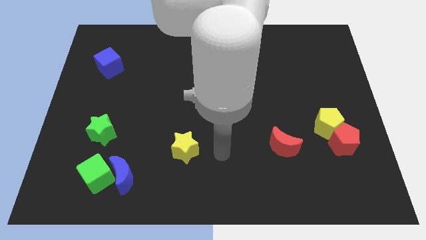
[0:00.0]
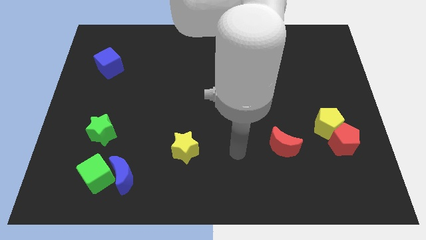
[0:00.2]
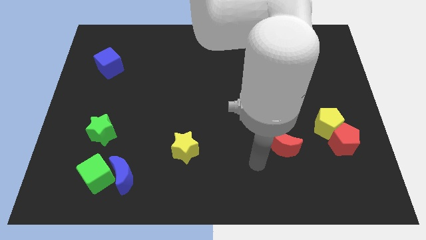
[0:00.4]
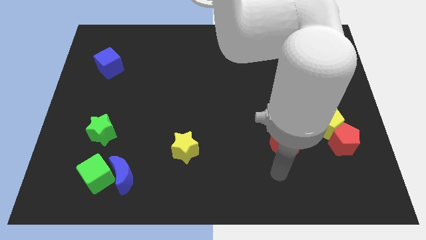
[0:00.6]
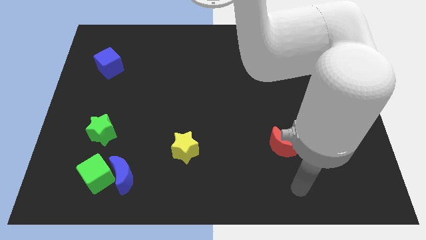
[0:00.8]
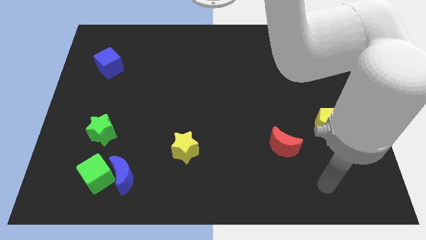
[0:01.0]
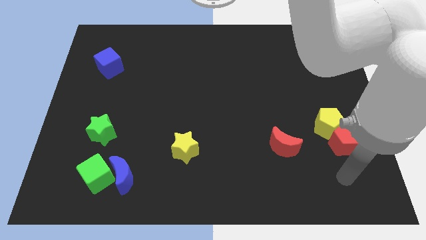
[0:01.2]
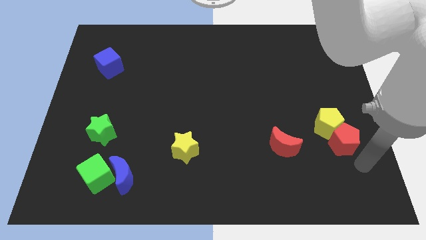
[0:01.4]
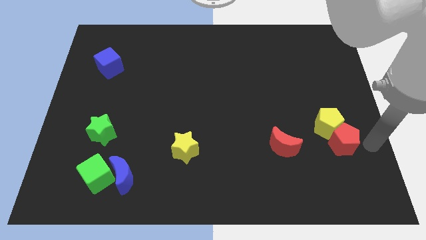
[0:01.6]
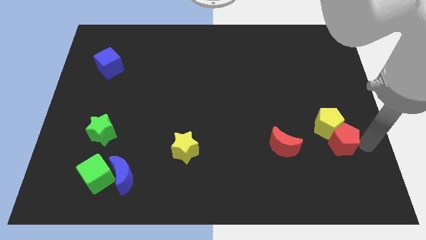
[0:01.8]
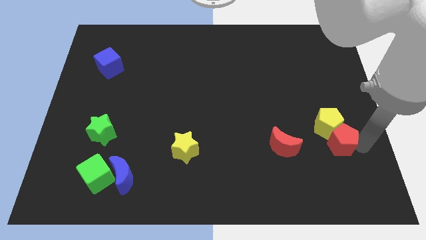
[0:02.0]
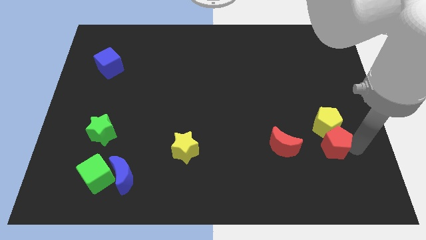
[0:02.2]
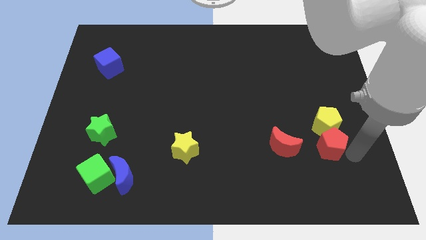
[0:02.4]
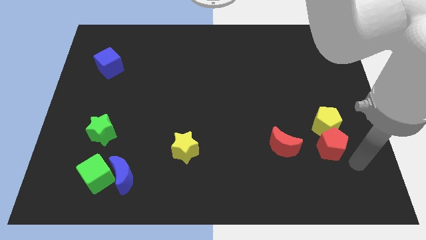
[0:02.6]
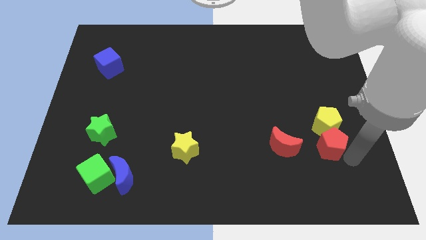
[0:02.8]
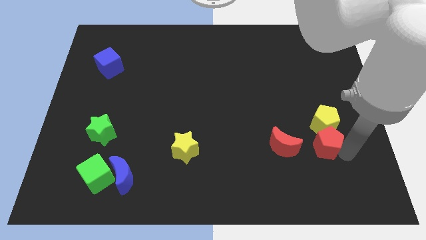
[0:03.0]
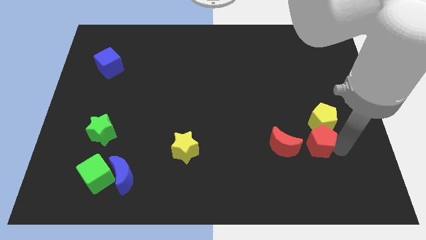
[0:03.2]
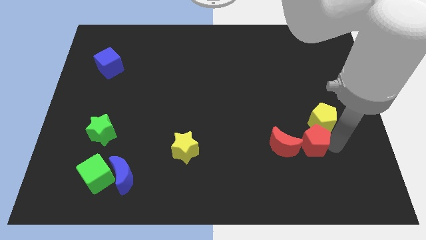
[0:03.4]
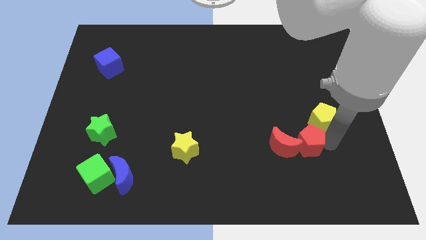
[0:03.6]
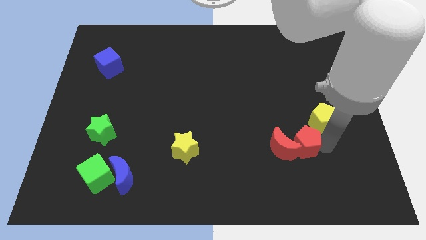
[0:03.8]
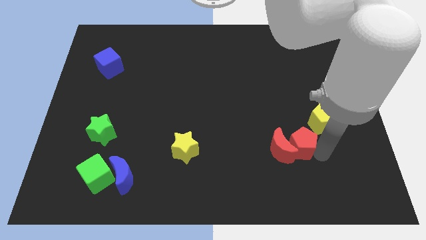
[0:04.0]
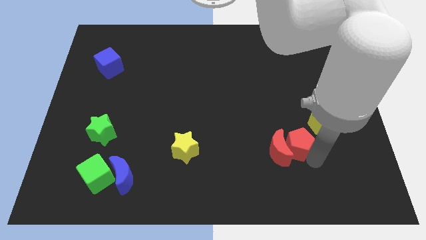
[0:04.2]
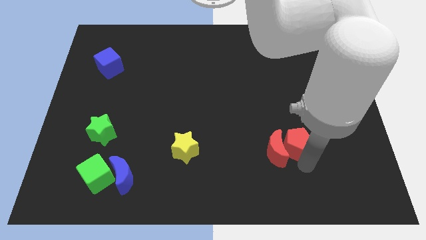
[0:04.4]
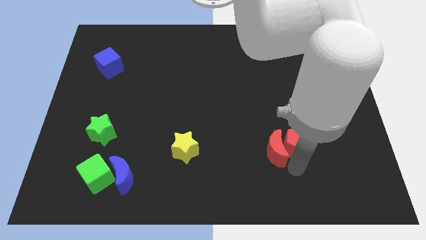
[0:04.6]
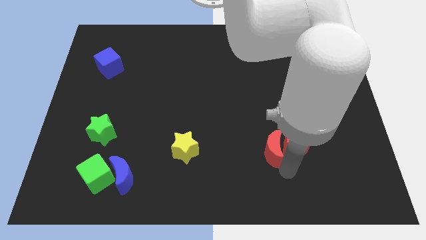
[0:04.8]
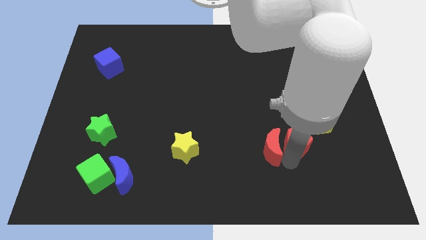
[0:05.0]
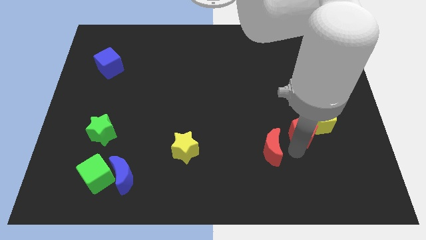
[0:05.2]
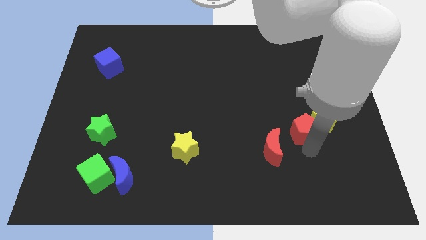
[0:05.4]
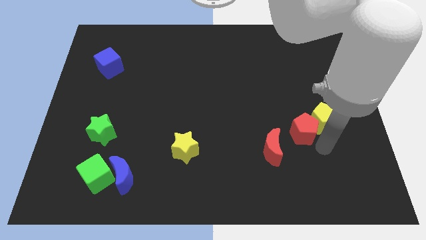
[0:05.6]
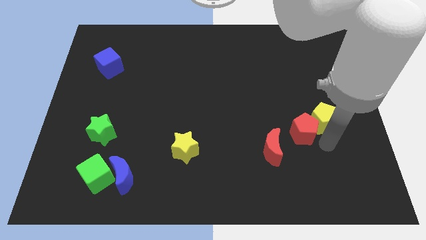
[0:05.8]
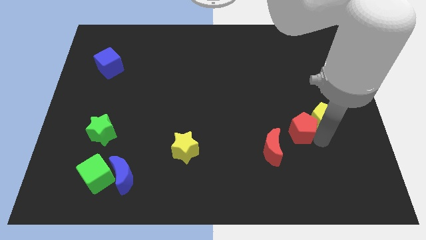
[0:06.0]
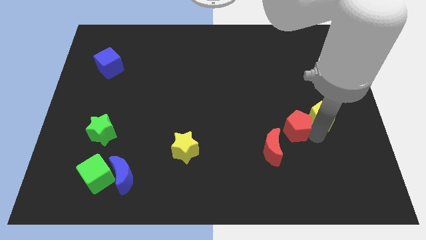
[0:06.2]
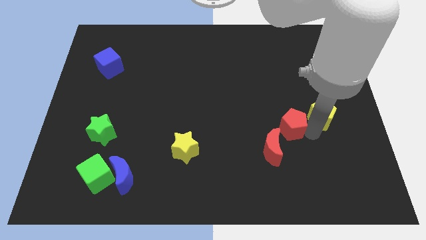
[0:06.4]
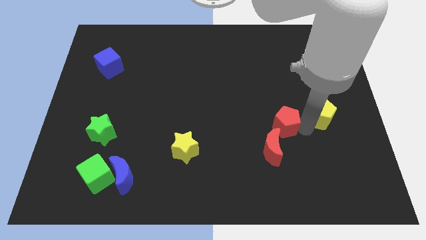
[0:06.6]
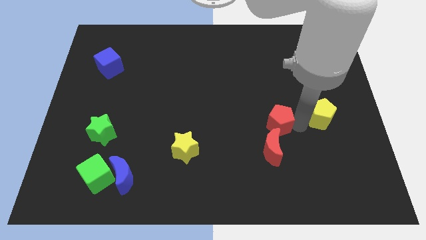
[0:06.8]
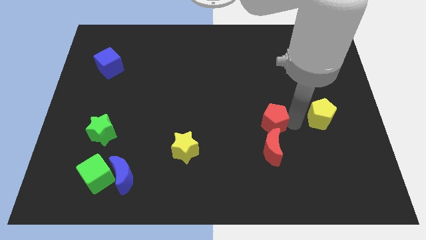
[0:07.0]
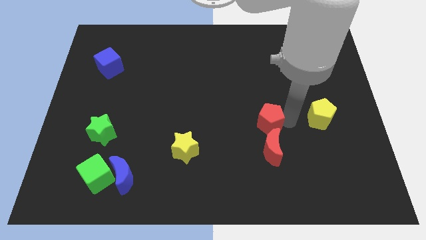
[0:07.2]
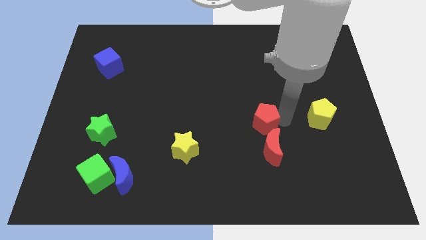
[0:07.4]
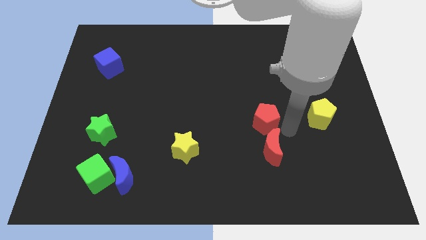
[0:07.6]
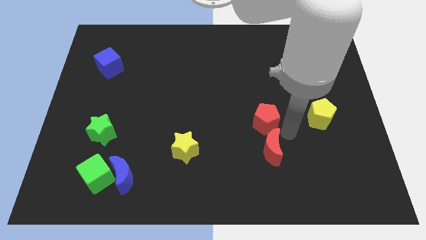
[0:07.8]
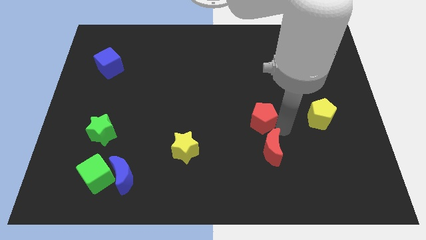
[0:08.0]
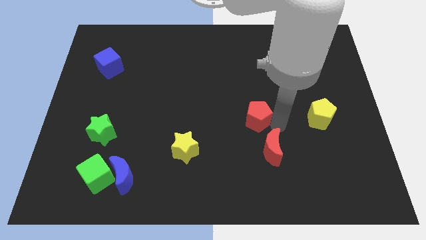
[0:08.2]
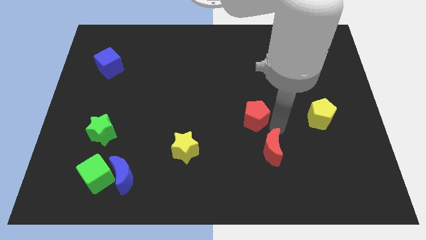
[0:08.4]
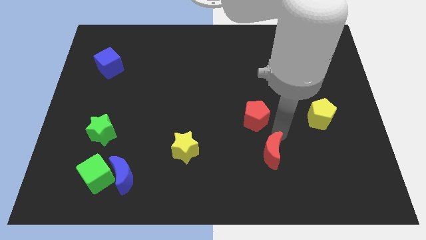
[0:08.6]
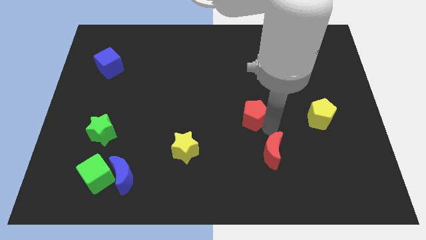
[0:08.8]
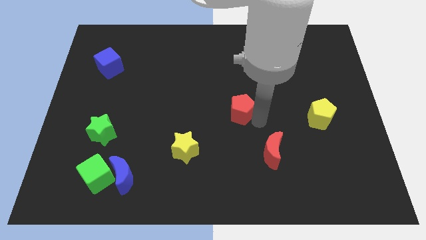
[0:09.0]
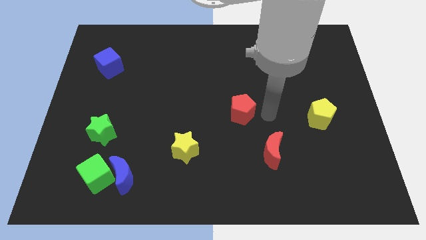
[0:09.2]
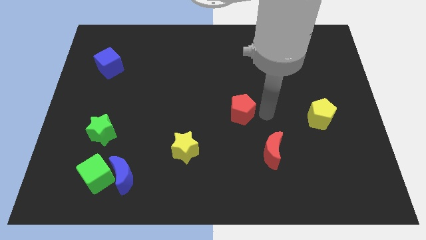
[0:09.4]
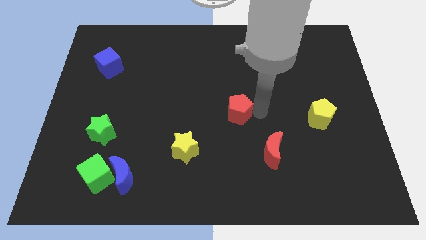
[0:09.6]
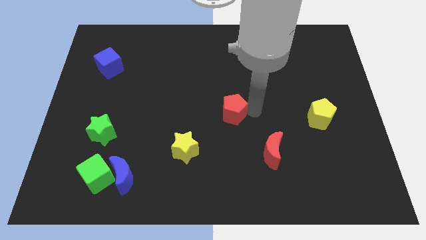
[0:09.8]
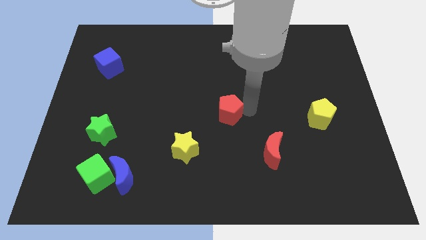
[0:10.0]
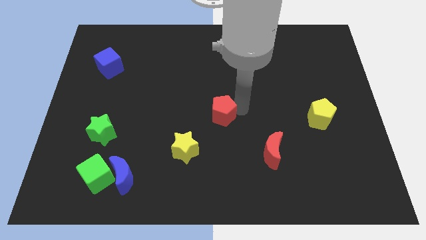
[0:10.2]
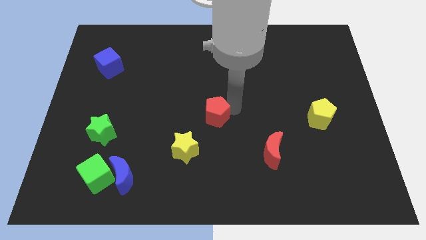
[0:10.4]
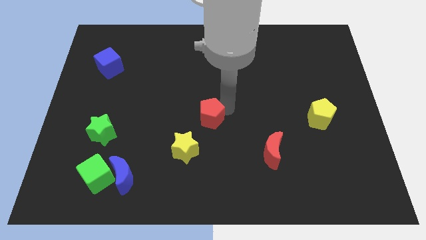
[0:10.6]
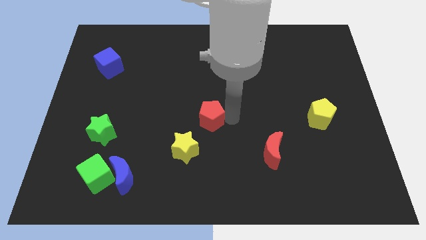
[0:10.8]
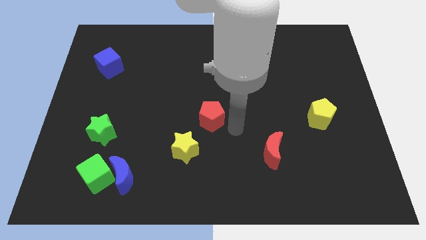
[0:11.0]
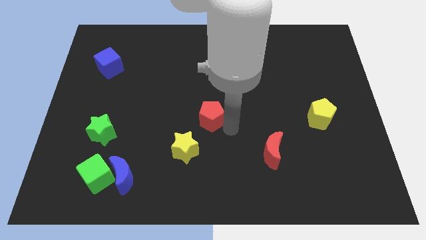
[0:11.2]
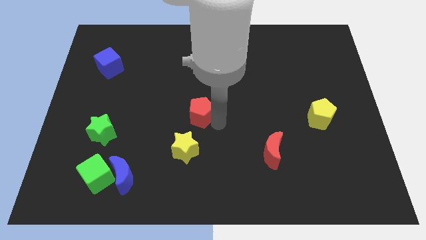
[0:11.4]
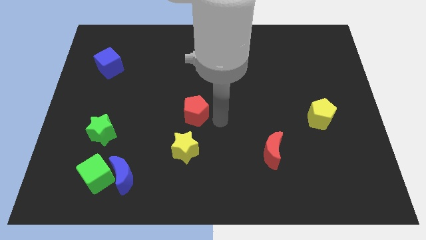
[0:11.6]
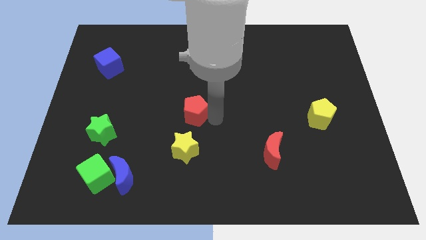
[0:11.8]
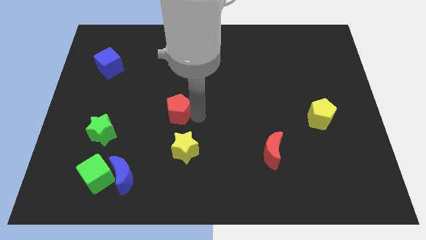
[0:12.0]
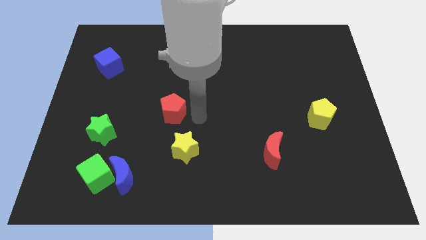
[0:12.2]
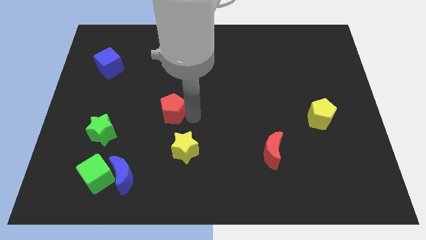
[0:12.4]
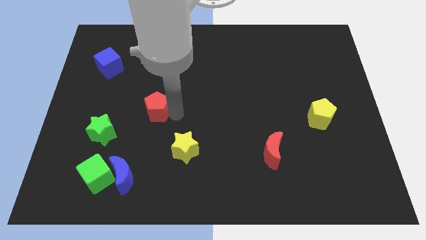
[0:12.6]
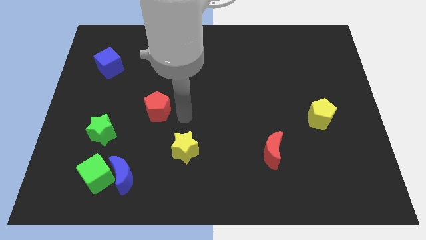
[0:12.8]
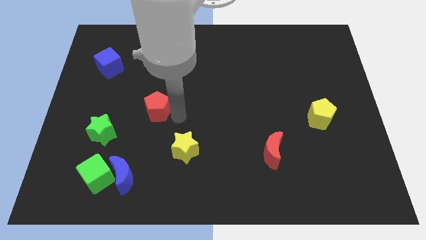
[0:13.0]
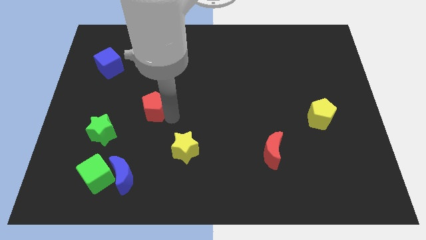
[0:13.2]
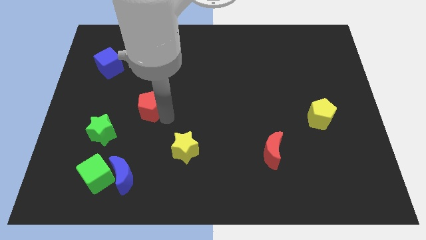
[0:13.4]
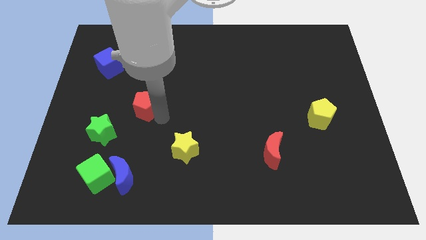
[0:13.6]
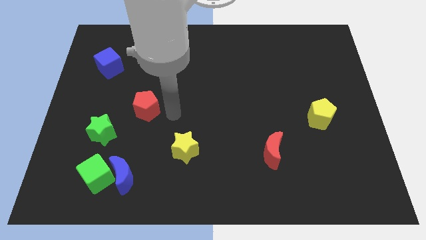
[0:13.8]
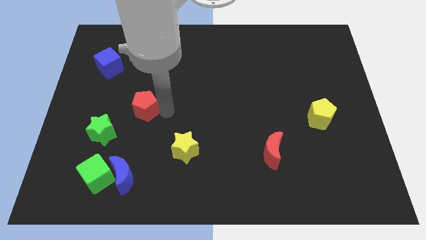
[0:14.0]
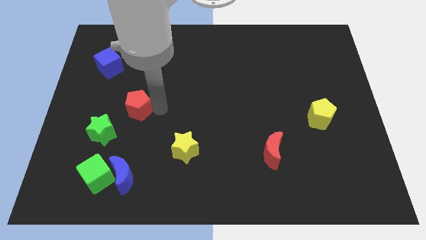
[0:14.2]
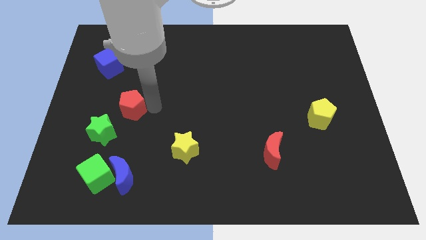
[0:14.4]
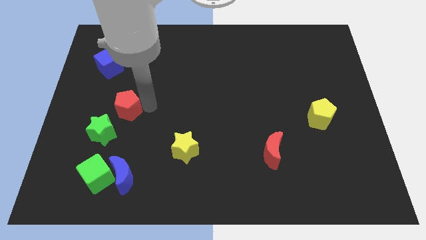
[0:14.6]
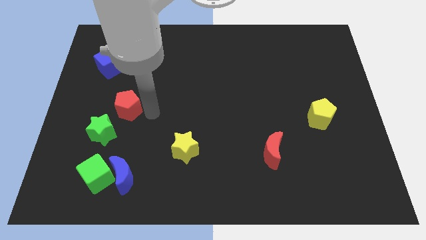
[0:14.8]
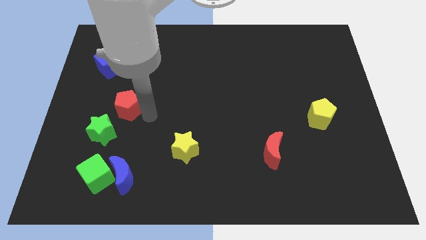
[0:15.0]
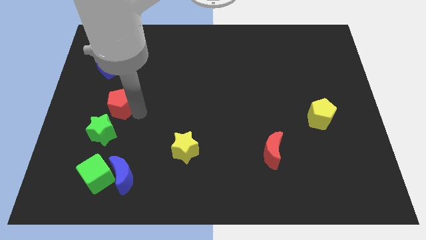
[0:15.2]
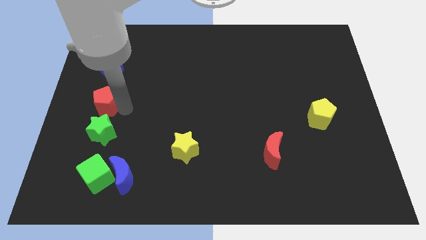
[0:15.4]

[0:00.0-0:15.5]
push the red pentagon to the center left
